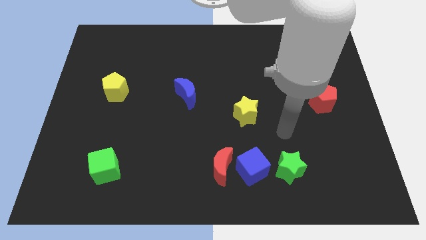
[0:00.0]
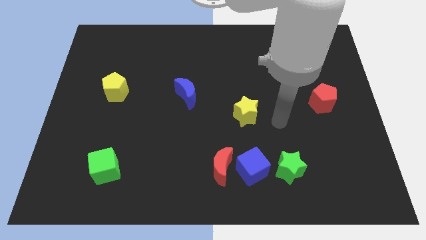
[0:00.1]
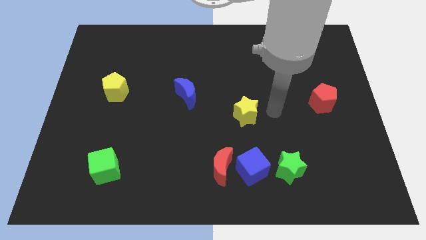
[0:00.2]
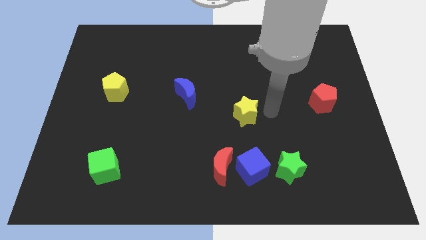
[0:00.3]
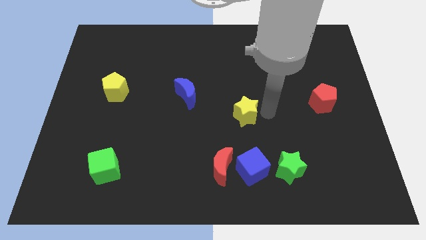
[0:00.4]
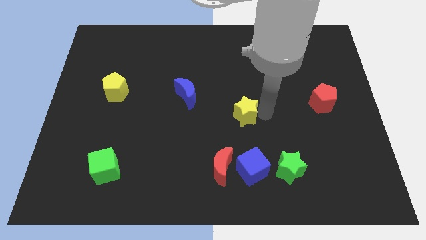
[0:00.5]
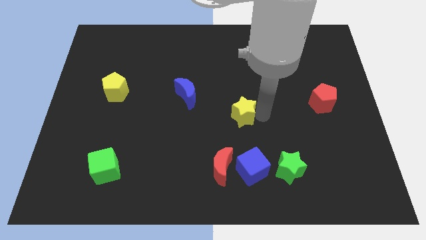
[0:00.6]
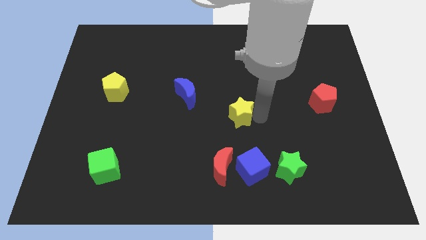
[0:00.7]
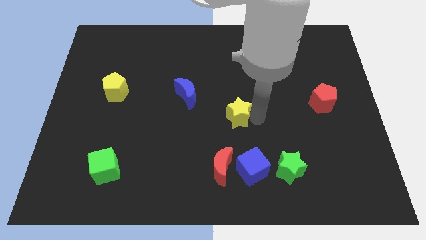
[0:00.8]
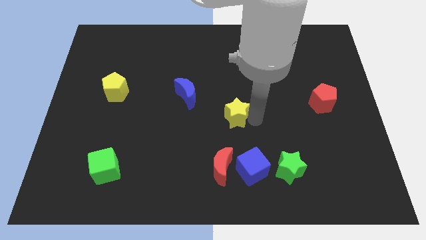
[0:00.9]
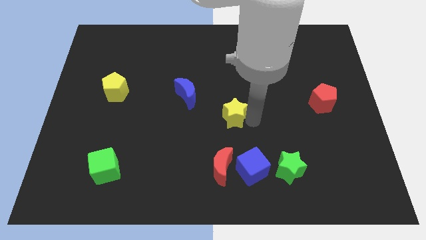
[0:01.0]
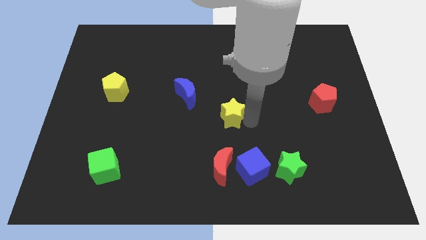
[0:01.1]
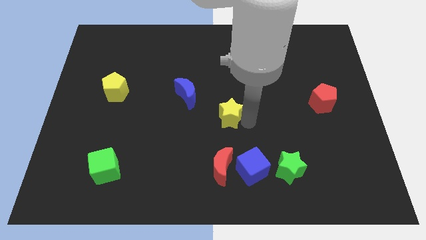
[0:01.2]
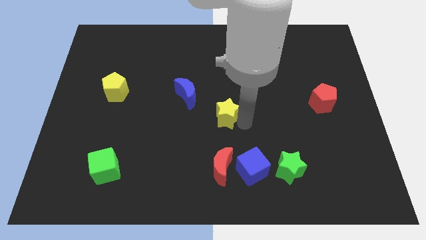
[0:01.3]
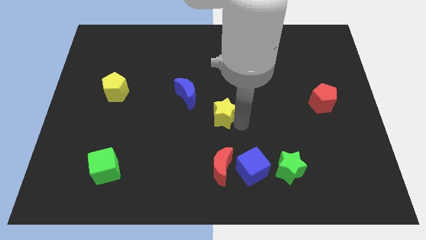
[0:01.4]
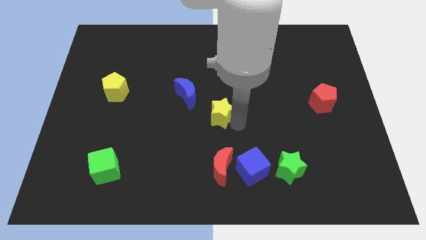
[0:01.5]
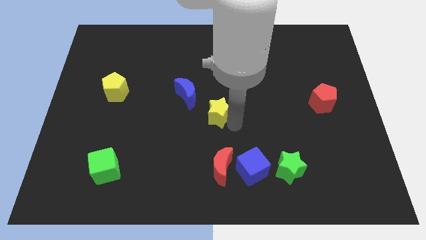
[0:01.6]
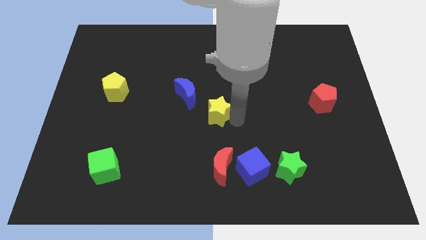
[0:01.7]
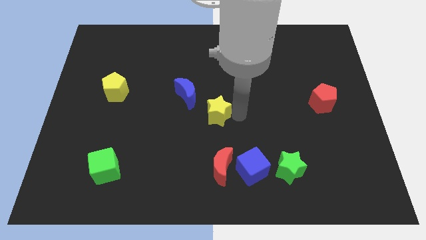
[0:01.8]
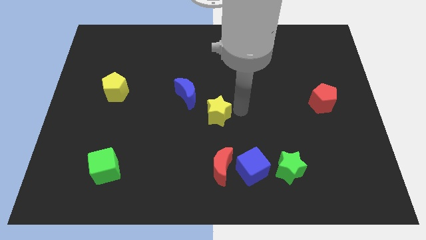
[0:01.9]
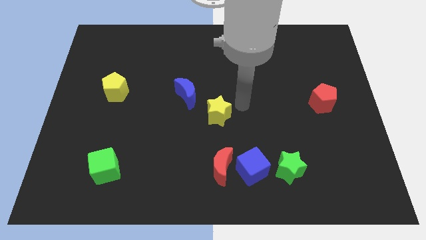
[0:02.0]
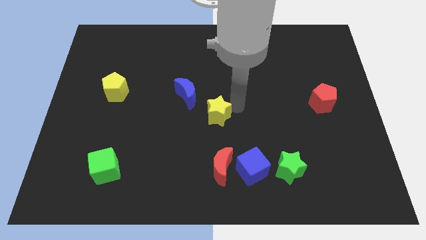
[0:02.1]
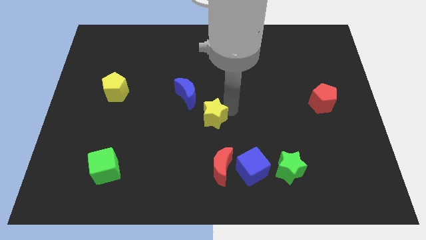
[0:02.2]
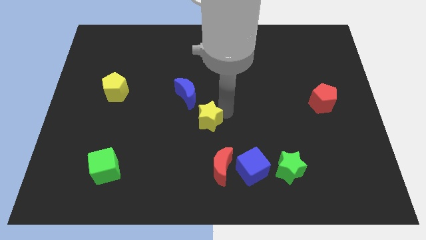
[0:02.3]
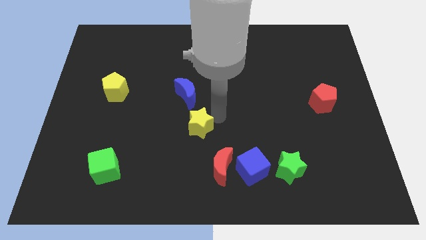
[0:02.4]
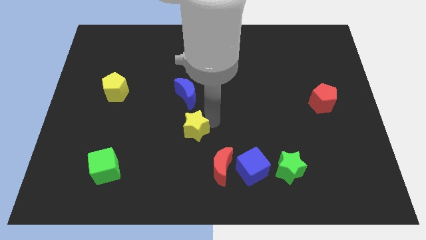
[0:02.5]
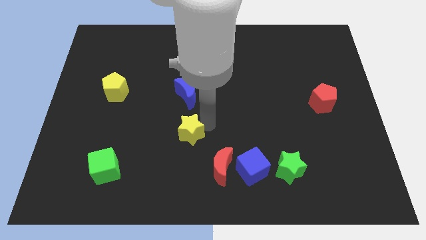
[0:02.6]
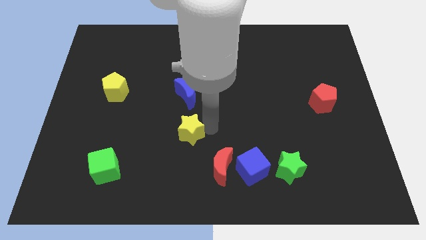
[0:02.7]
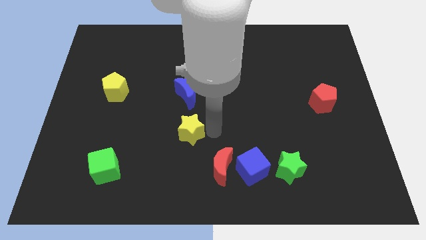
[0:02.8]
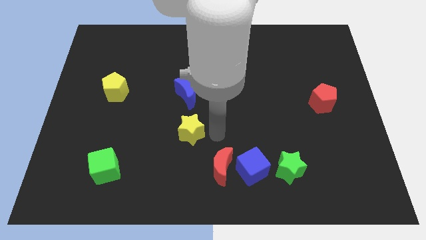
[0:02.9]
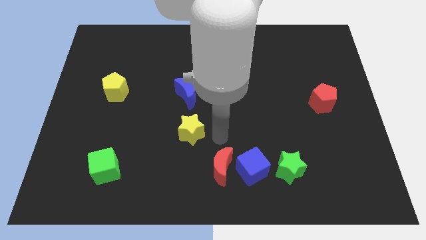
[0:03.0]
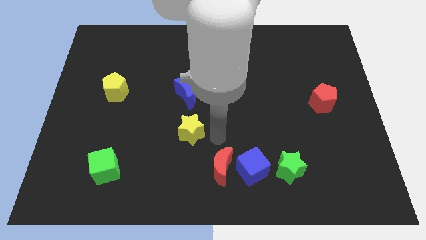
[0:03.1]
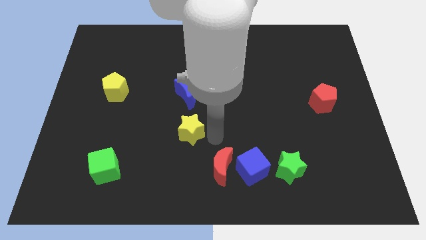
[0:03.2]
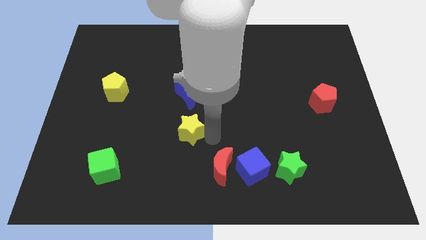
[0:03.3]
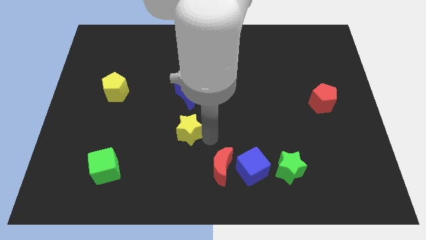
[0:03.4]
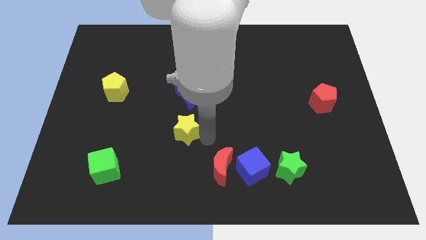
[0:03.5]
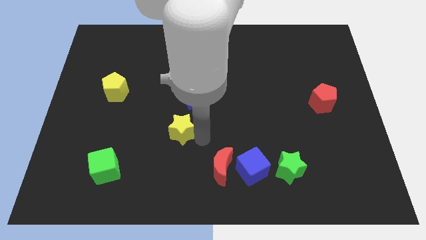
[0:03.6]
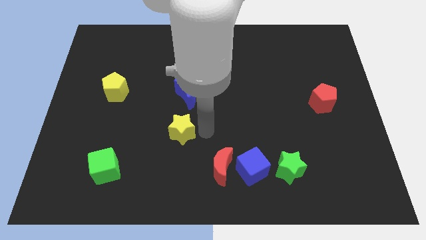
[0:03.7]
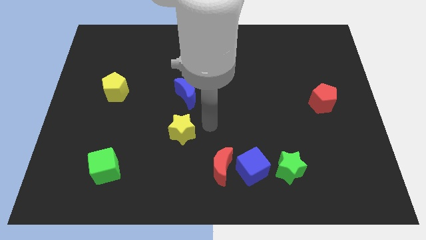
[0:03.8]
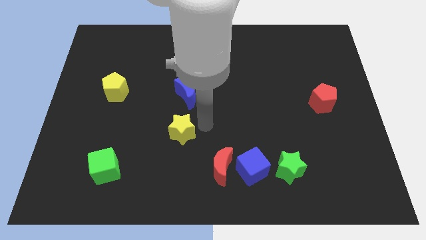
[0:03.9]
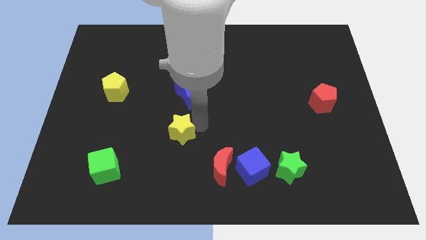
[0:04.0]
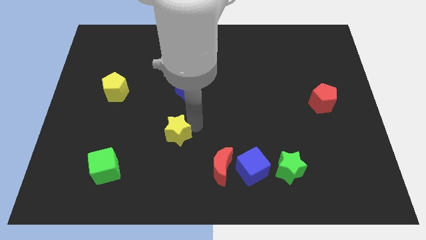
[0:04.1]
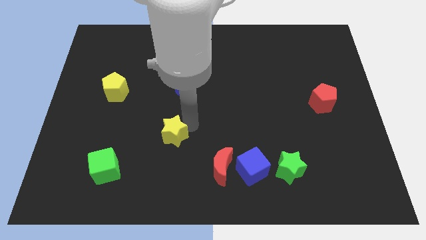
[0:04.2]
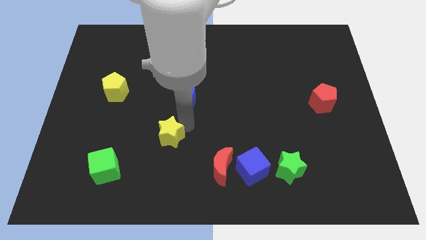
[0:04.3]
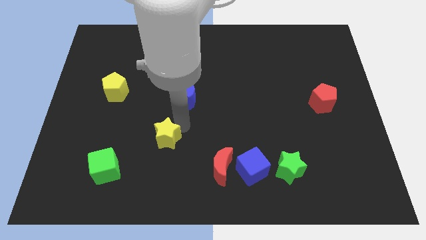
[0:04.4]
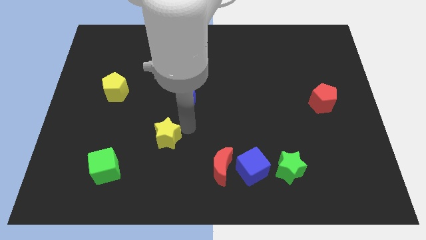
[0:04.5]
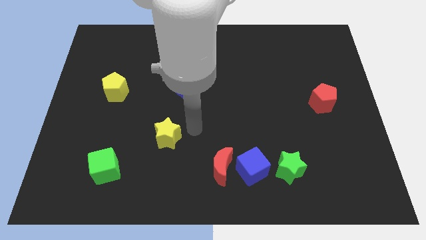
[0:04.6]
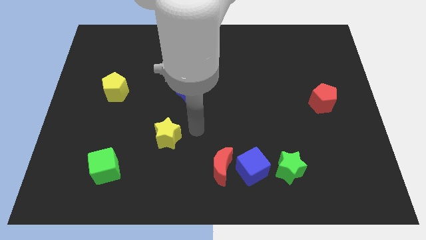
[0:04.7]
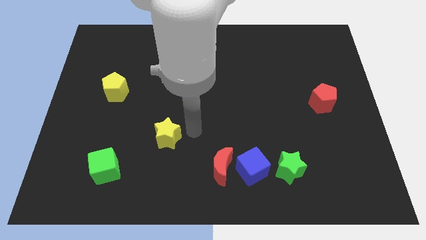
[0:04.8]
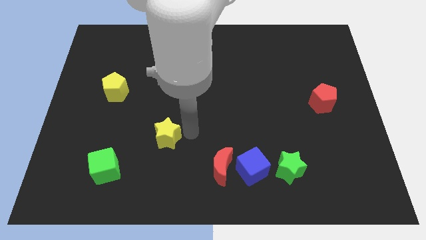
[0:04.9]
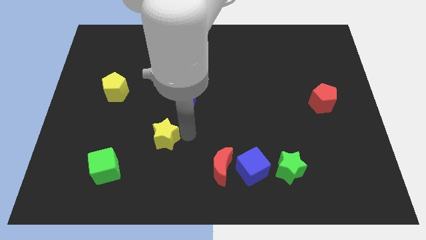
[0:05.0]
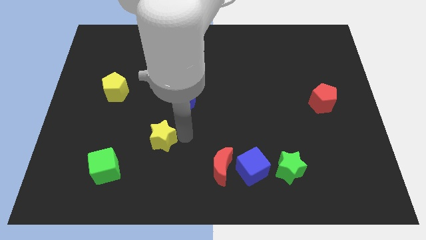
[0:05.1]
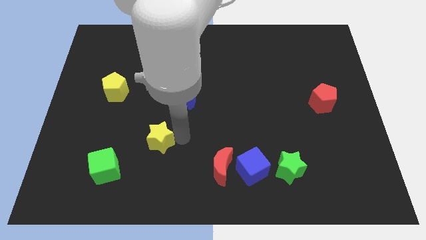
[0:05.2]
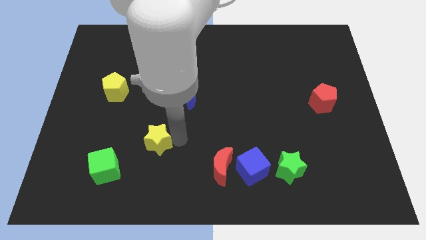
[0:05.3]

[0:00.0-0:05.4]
slide the yellow star diagonally up and to the right of the green cube

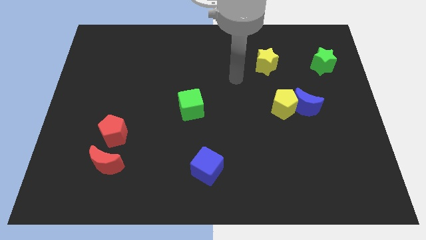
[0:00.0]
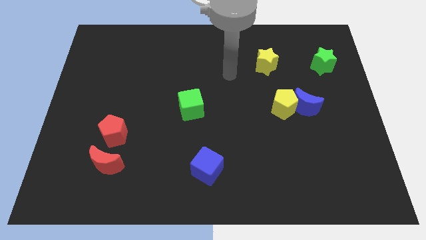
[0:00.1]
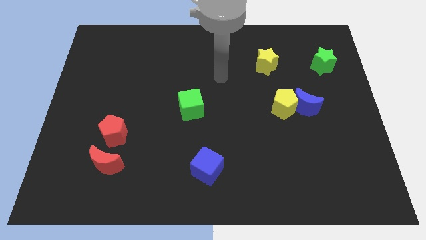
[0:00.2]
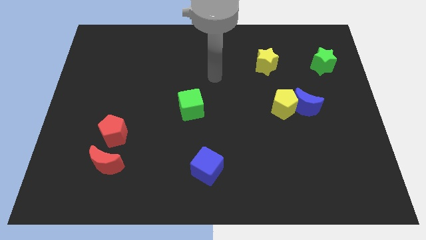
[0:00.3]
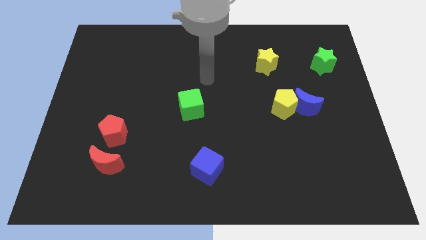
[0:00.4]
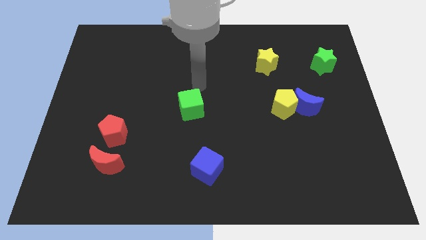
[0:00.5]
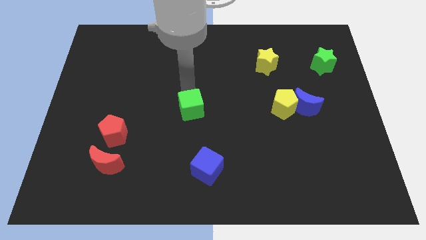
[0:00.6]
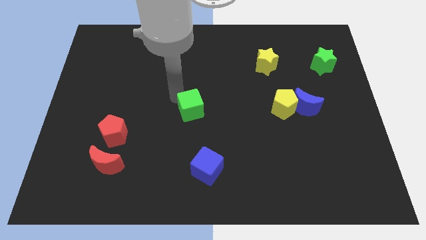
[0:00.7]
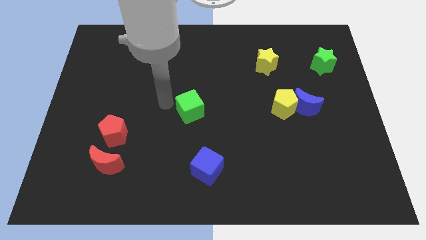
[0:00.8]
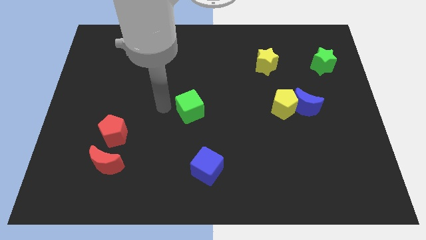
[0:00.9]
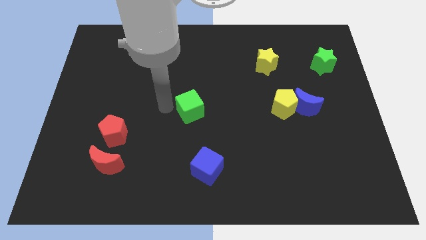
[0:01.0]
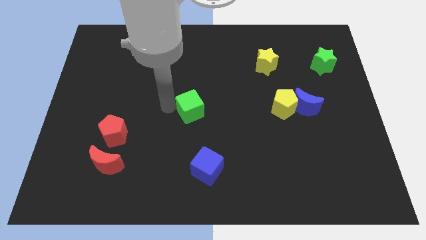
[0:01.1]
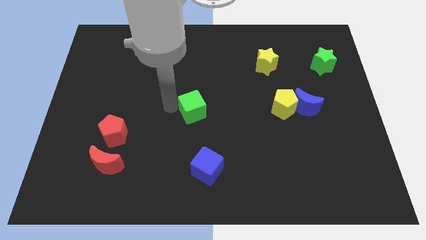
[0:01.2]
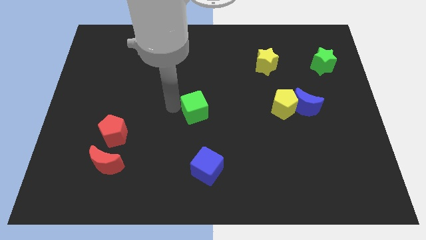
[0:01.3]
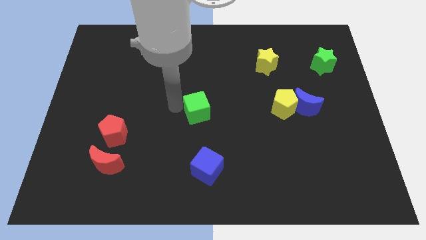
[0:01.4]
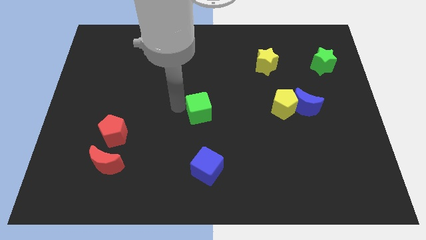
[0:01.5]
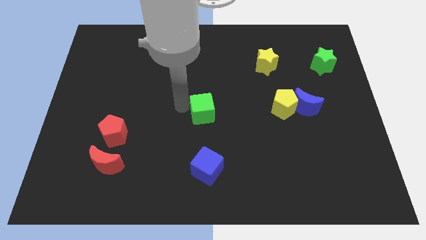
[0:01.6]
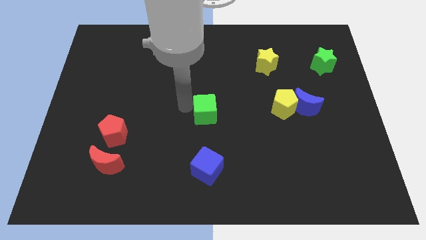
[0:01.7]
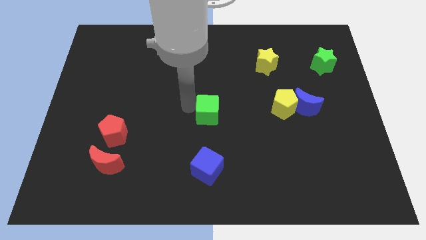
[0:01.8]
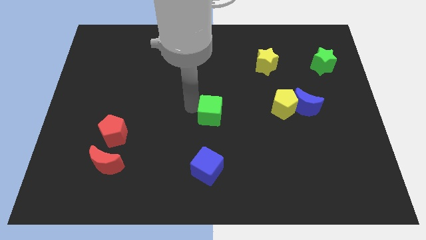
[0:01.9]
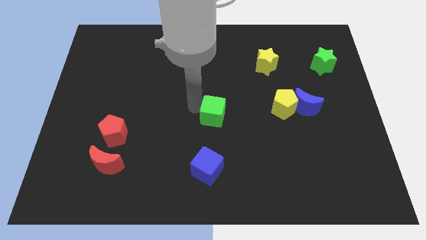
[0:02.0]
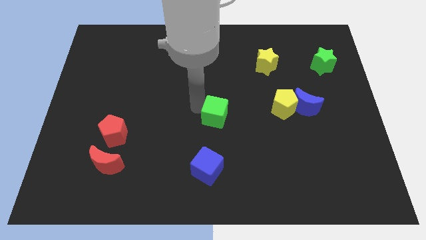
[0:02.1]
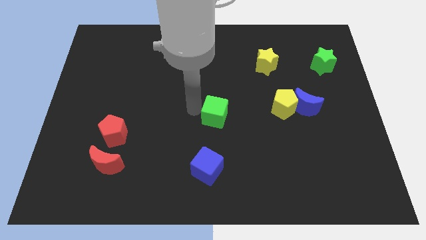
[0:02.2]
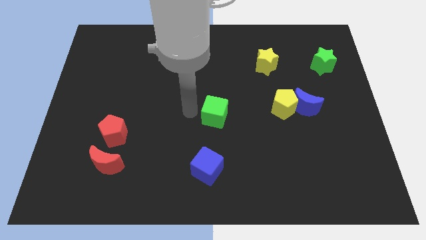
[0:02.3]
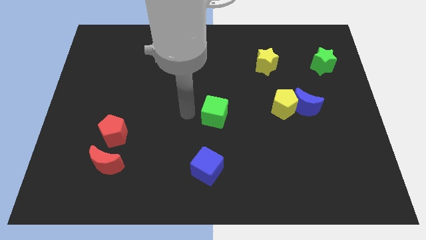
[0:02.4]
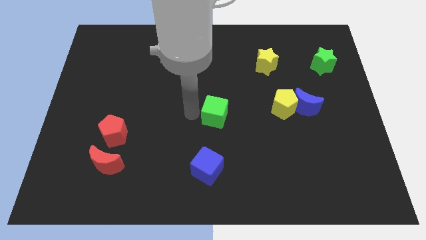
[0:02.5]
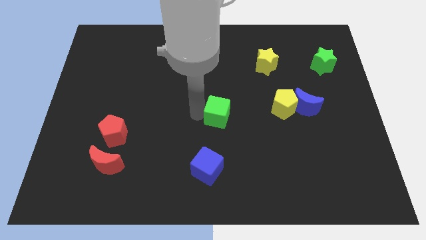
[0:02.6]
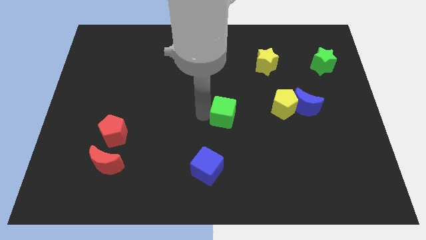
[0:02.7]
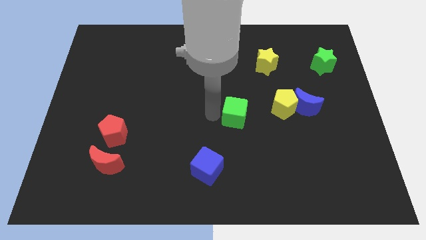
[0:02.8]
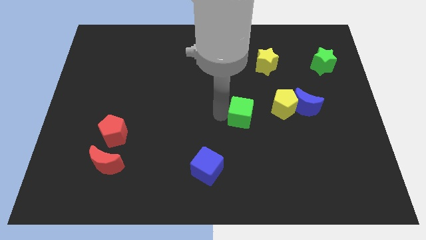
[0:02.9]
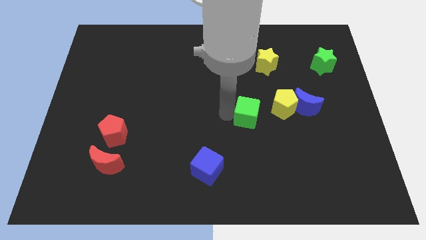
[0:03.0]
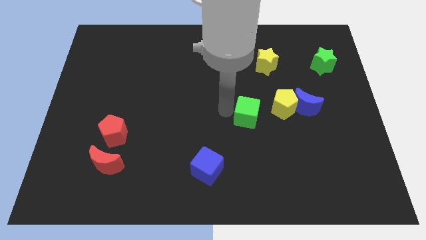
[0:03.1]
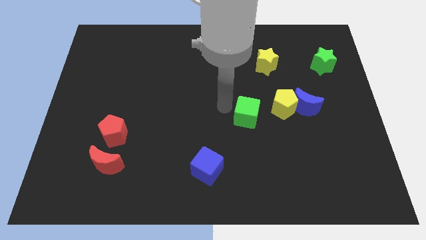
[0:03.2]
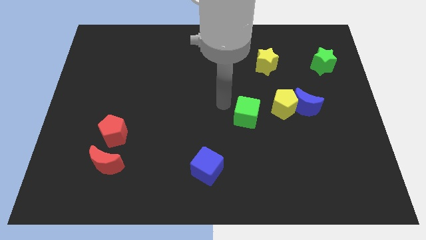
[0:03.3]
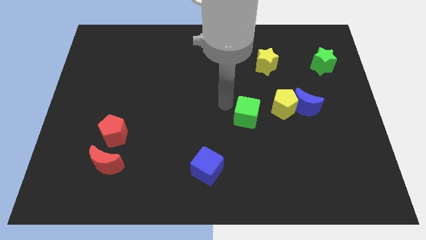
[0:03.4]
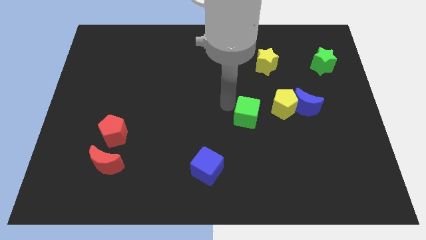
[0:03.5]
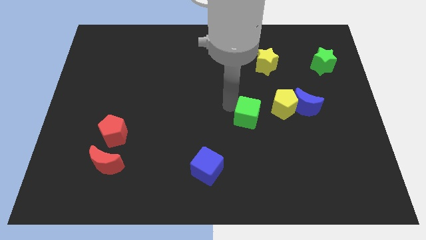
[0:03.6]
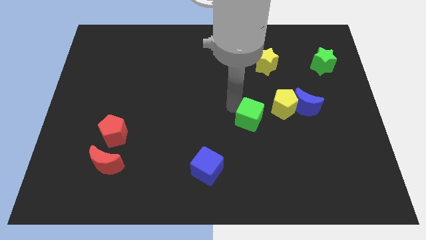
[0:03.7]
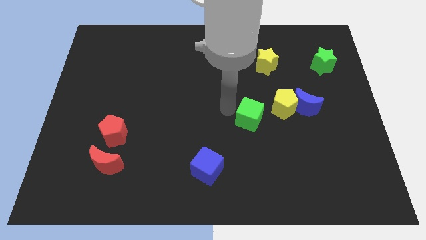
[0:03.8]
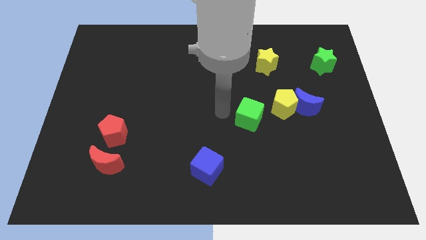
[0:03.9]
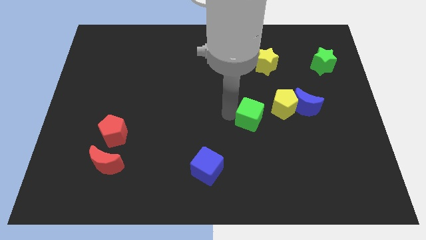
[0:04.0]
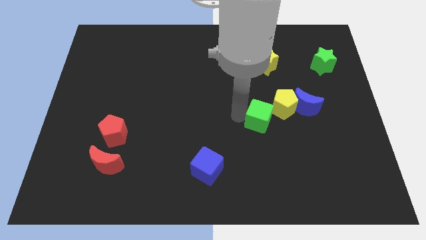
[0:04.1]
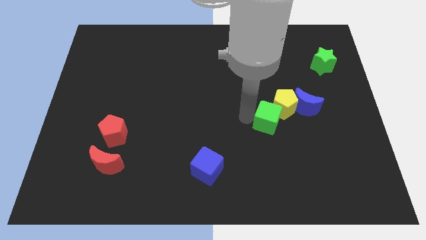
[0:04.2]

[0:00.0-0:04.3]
slide the green cube to the bottom left side of the blue moon
